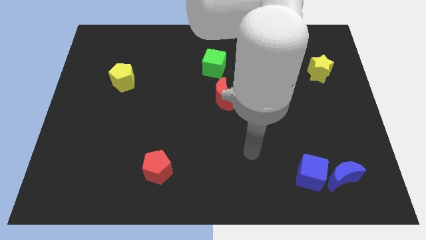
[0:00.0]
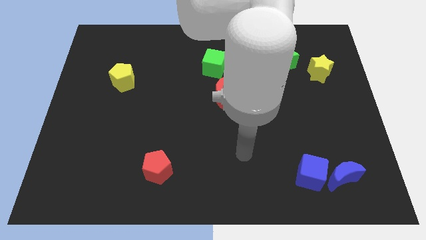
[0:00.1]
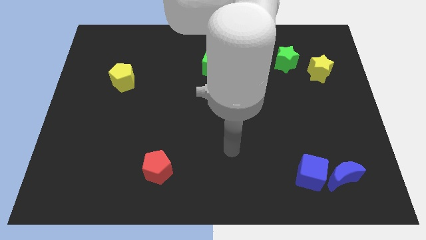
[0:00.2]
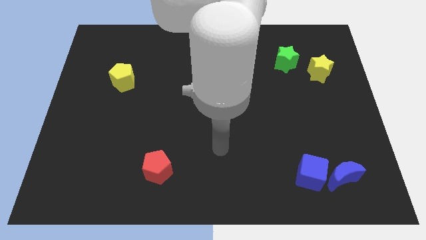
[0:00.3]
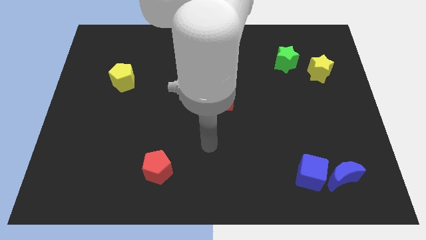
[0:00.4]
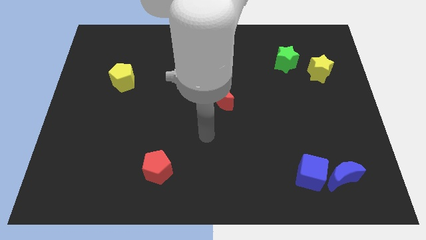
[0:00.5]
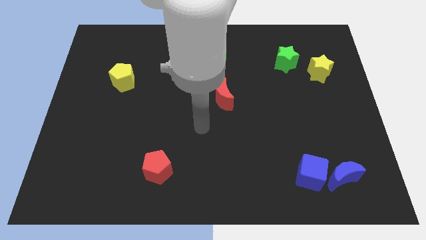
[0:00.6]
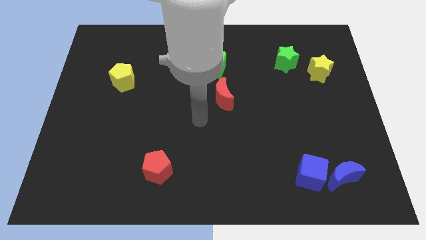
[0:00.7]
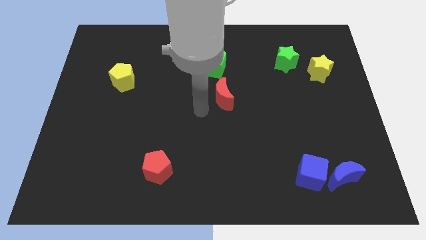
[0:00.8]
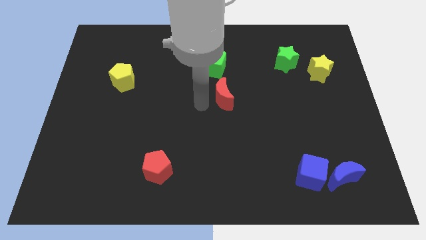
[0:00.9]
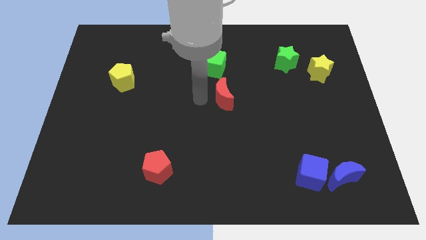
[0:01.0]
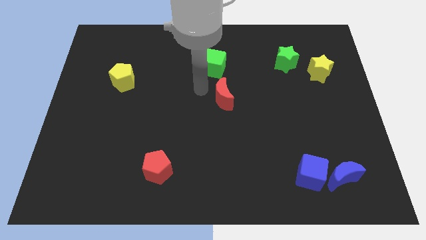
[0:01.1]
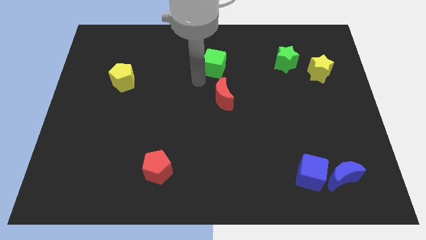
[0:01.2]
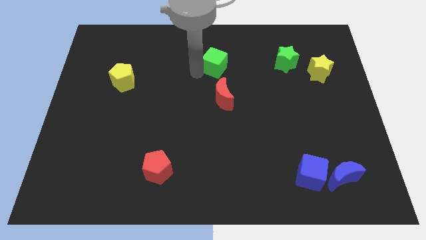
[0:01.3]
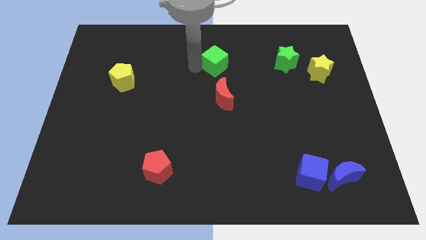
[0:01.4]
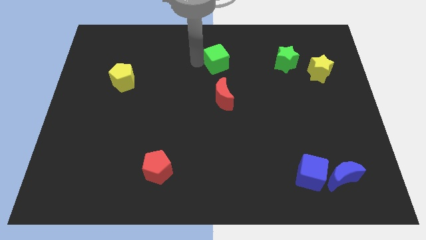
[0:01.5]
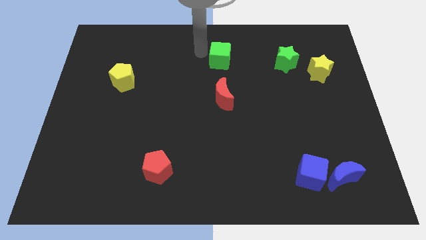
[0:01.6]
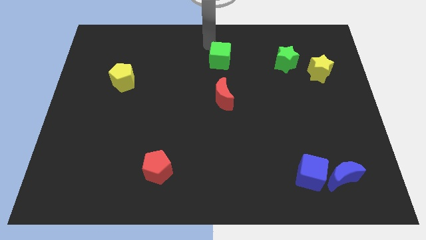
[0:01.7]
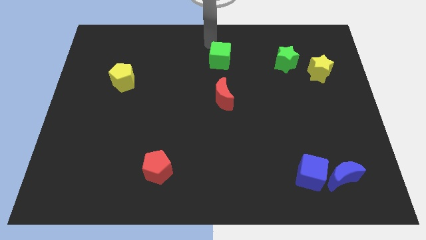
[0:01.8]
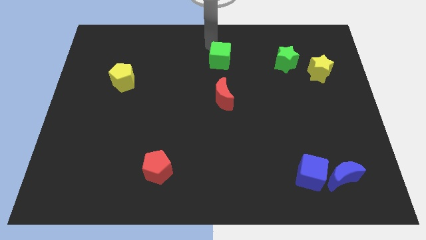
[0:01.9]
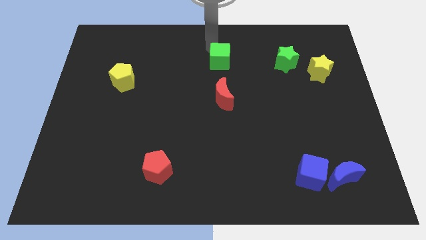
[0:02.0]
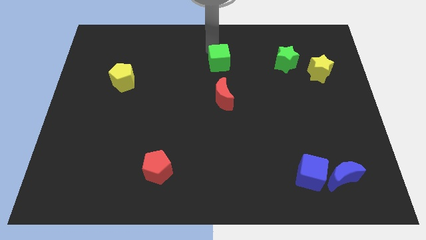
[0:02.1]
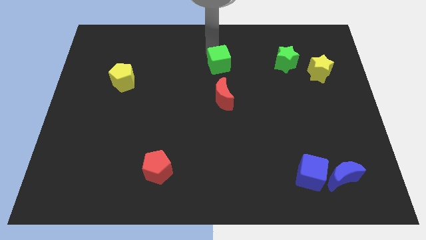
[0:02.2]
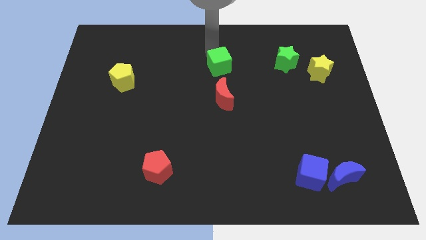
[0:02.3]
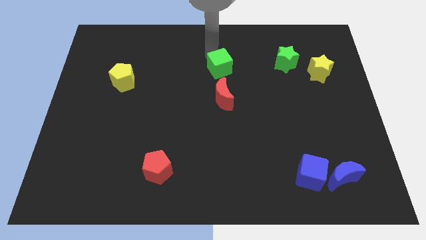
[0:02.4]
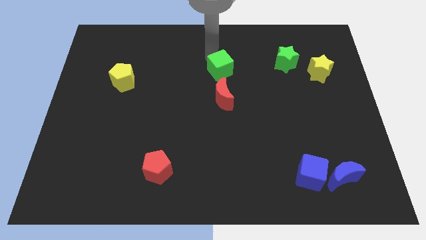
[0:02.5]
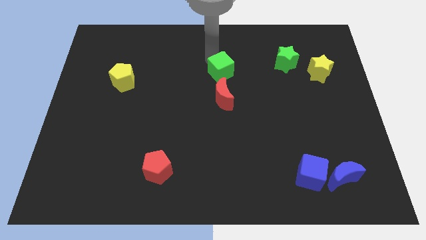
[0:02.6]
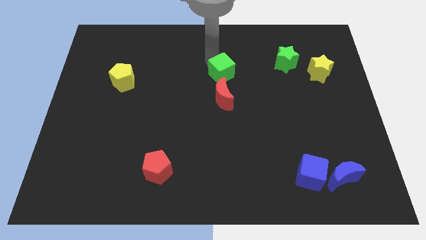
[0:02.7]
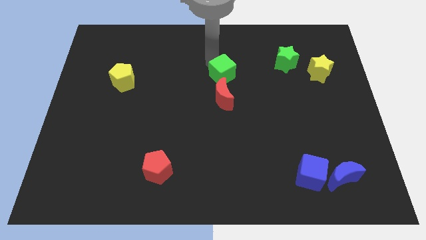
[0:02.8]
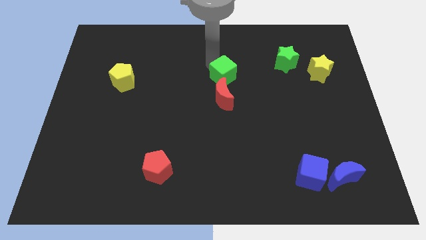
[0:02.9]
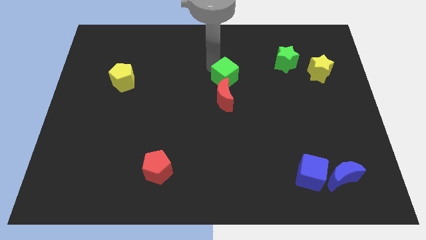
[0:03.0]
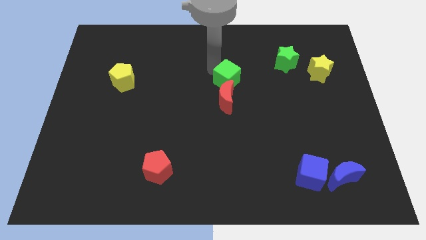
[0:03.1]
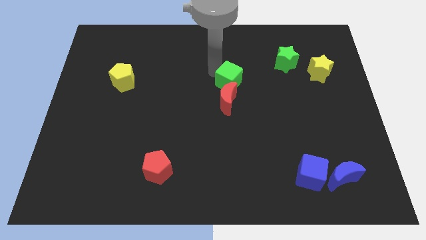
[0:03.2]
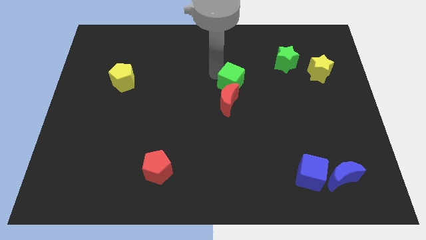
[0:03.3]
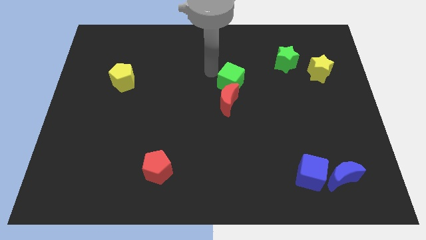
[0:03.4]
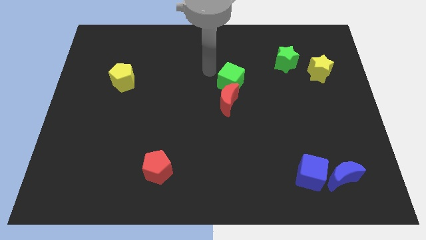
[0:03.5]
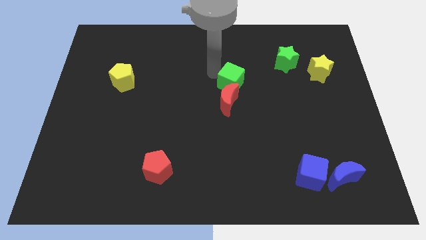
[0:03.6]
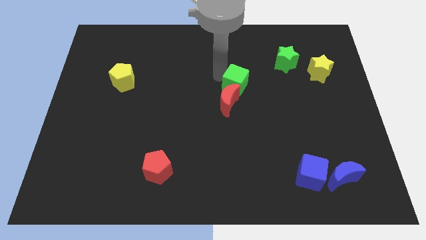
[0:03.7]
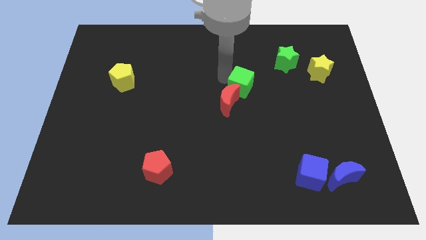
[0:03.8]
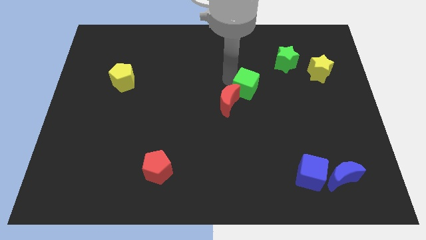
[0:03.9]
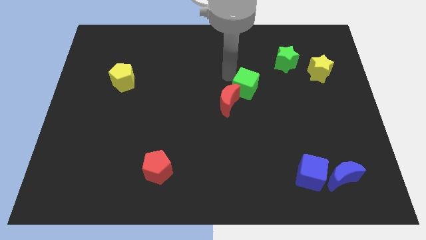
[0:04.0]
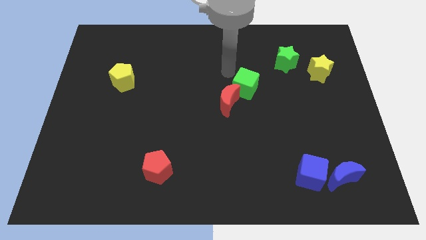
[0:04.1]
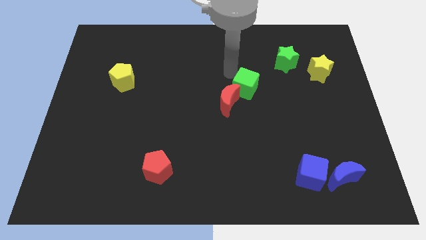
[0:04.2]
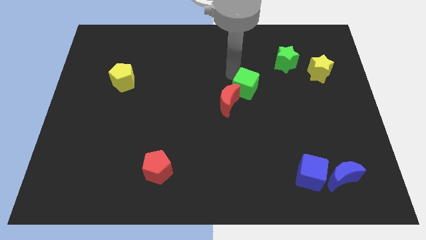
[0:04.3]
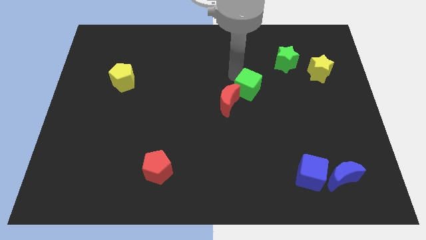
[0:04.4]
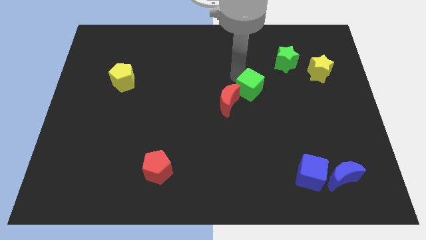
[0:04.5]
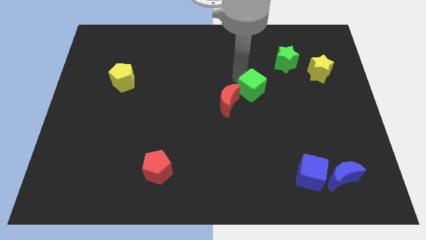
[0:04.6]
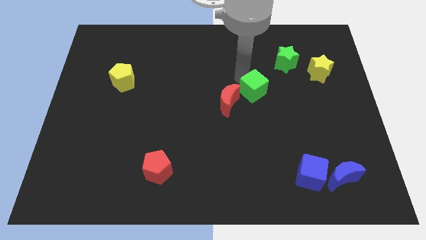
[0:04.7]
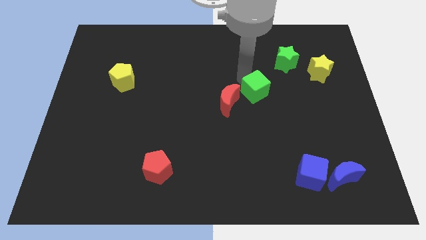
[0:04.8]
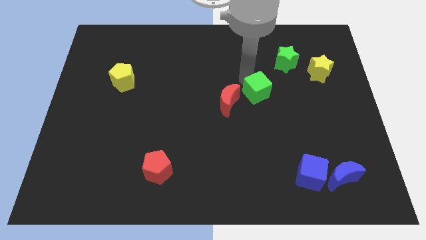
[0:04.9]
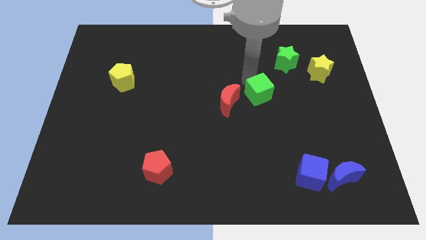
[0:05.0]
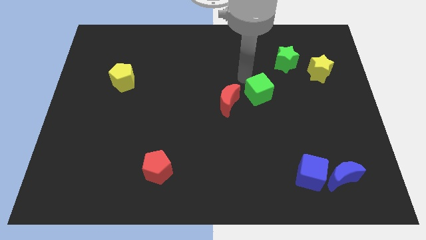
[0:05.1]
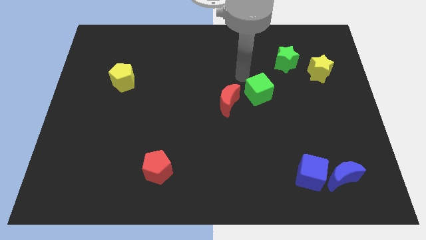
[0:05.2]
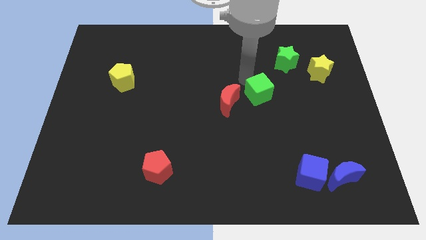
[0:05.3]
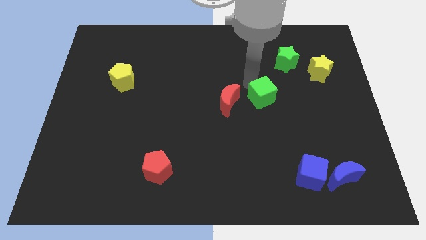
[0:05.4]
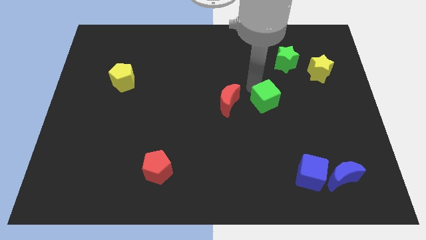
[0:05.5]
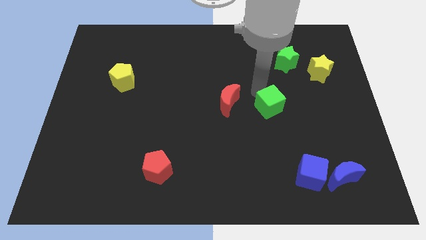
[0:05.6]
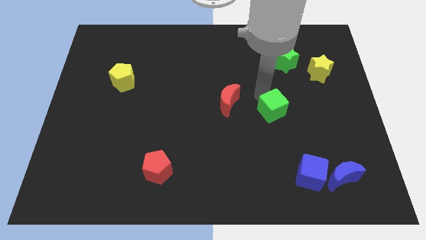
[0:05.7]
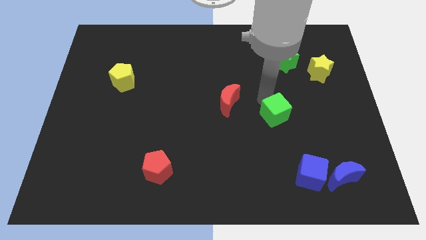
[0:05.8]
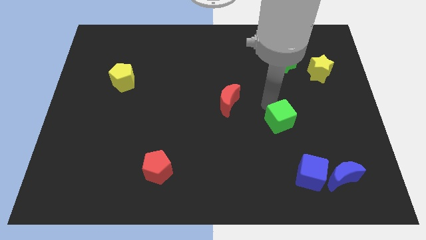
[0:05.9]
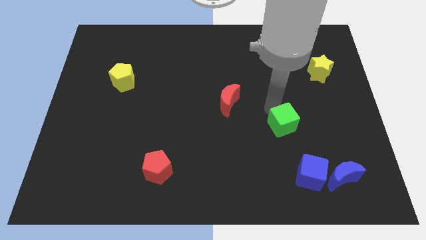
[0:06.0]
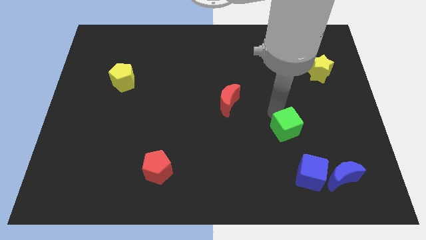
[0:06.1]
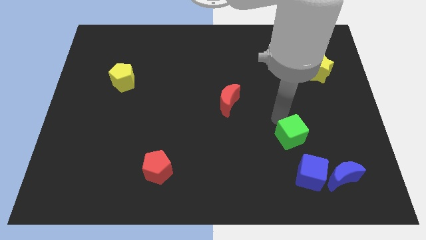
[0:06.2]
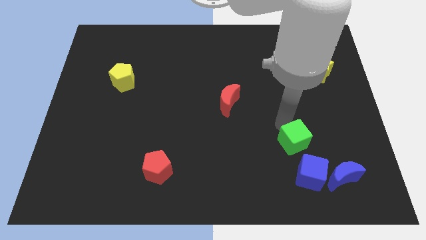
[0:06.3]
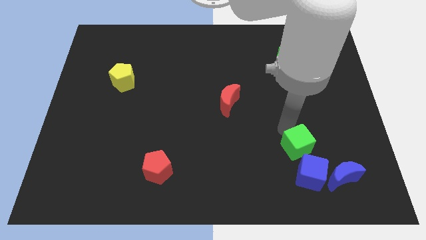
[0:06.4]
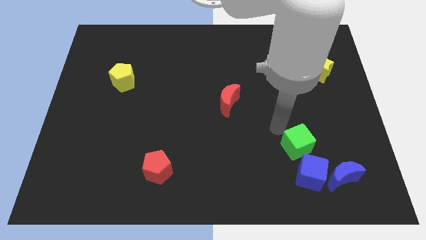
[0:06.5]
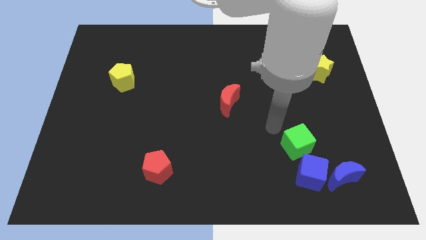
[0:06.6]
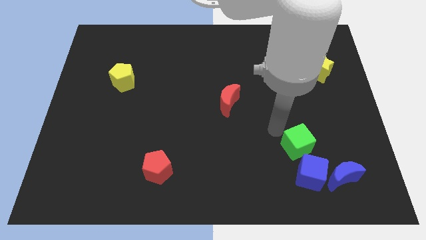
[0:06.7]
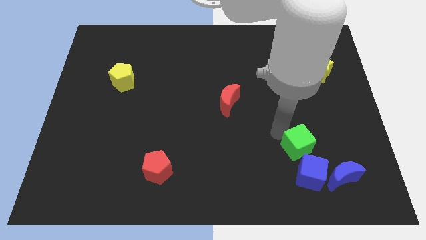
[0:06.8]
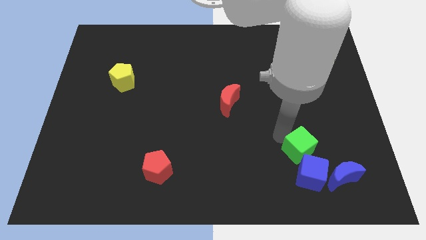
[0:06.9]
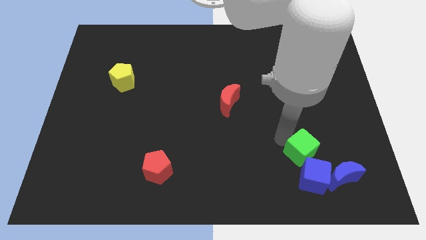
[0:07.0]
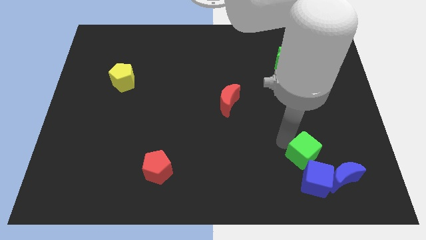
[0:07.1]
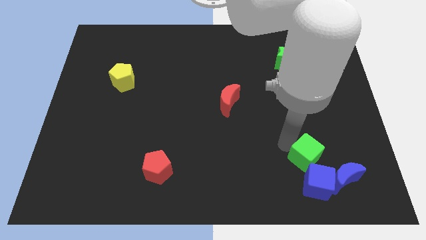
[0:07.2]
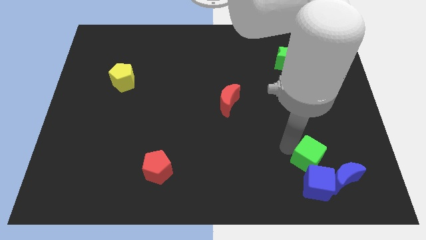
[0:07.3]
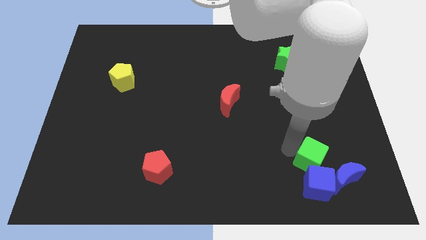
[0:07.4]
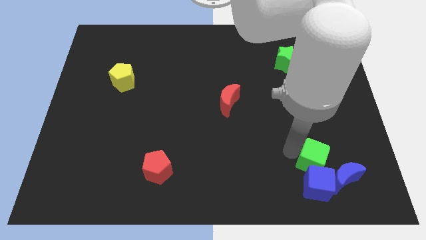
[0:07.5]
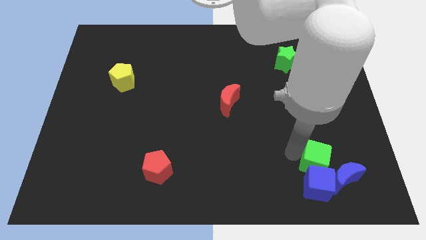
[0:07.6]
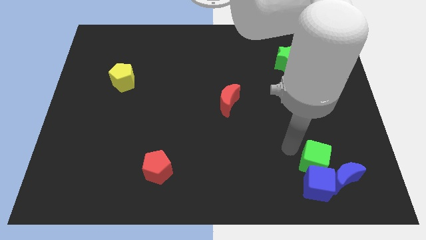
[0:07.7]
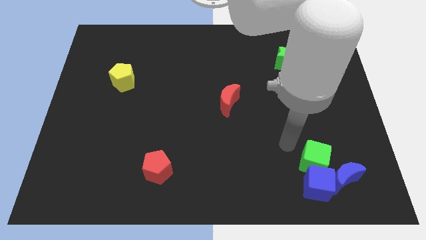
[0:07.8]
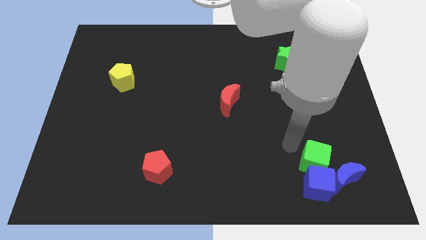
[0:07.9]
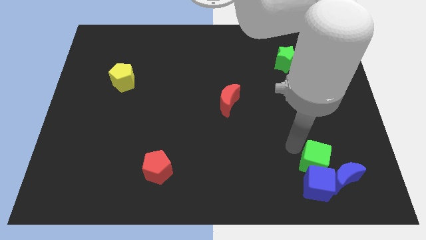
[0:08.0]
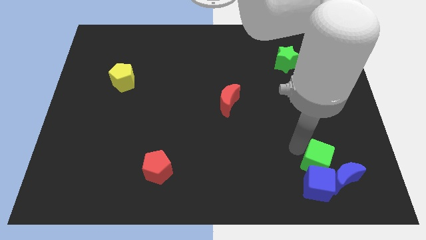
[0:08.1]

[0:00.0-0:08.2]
push the green cube towards the blue moon
